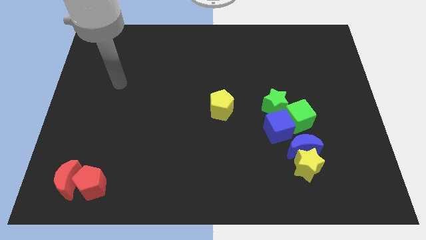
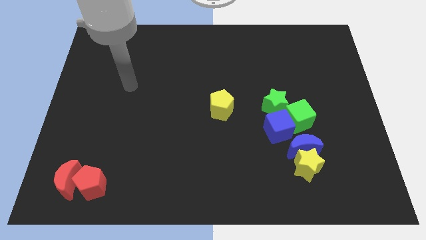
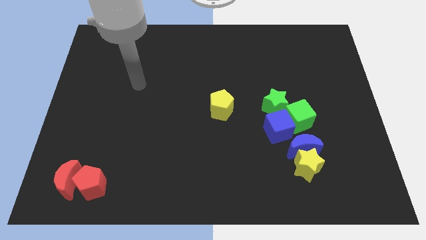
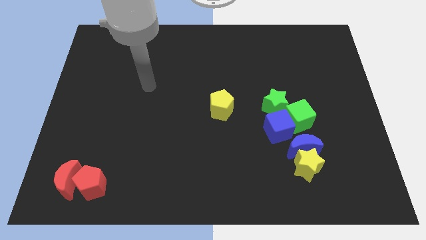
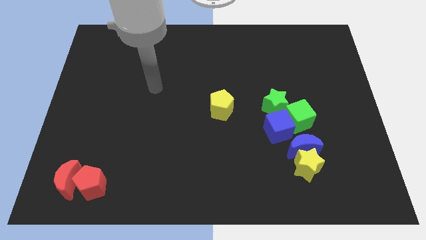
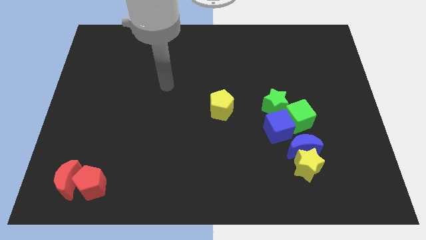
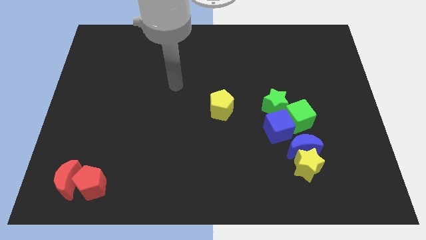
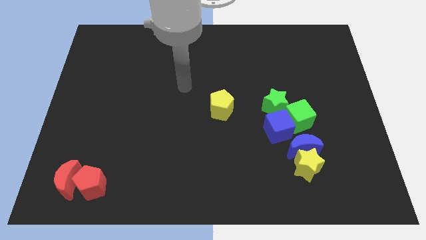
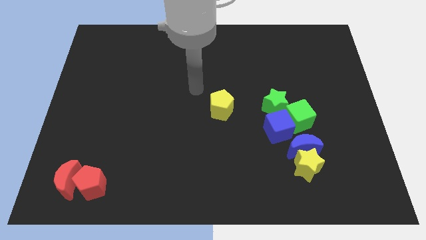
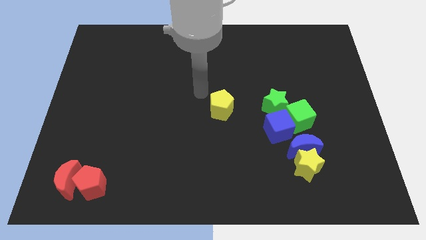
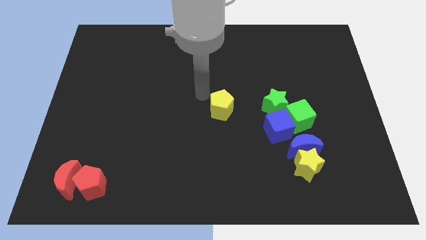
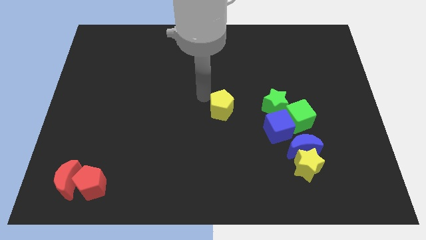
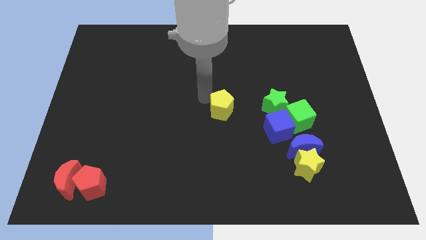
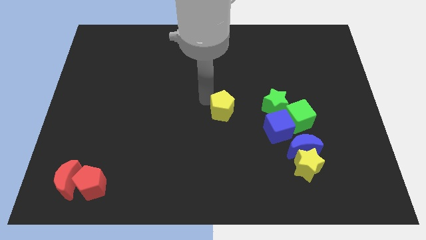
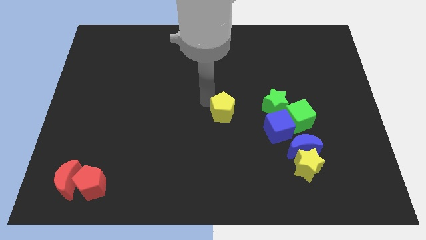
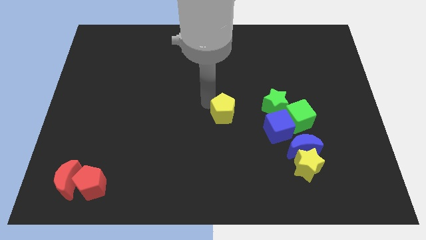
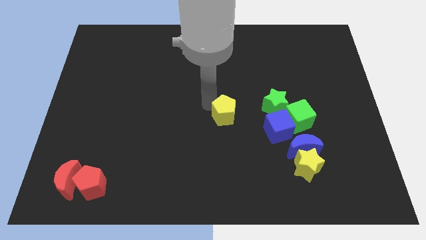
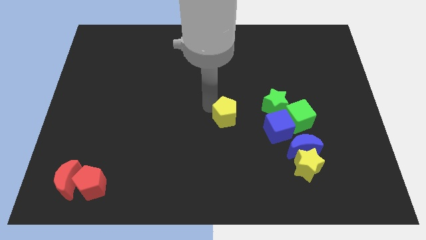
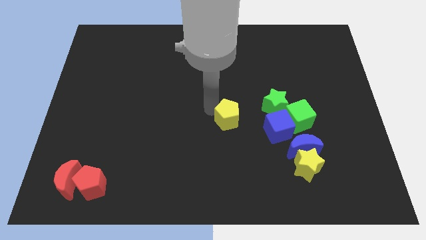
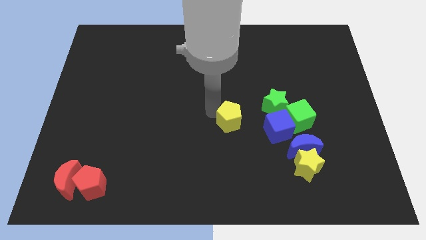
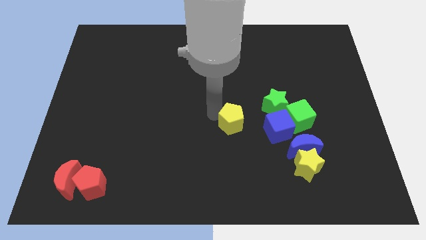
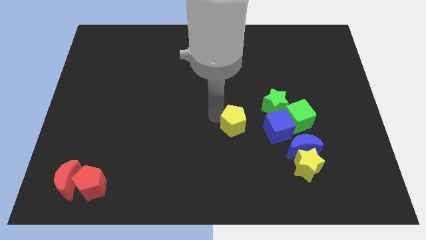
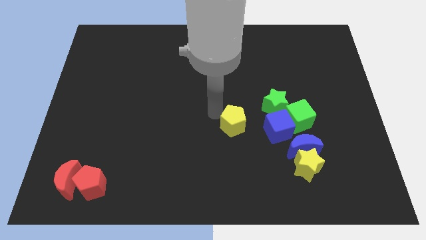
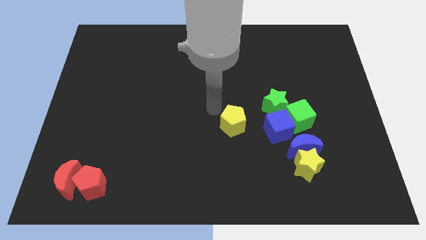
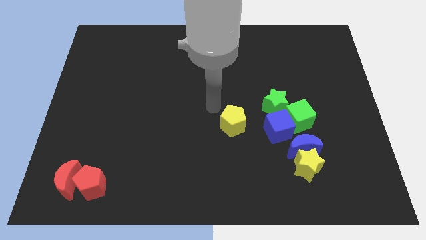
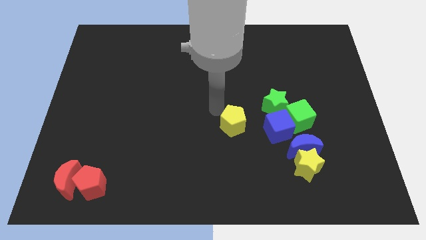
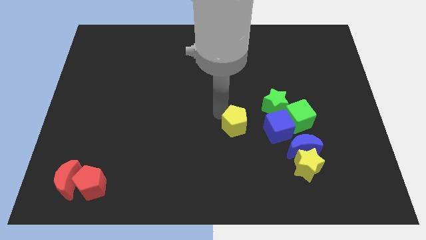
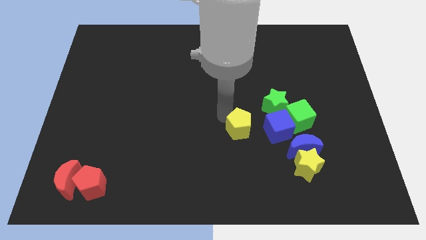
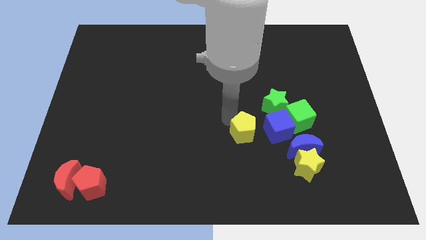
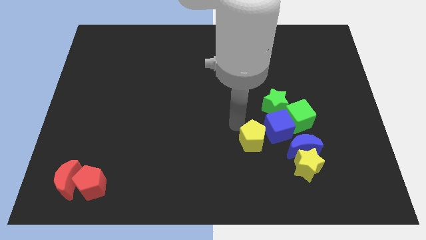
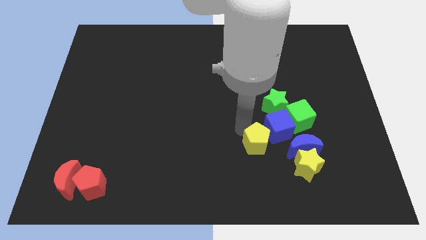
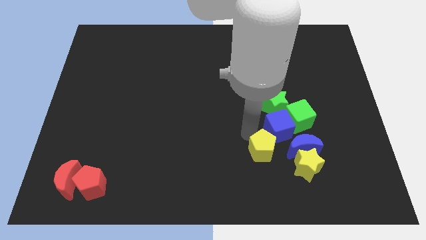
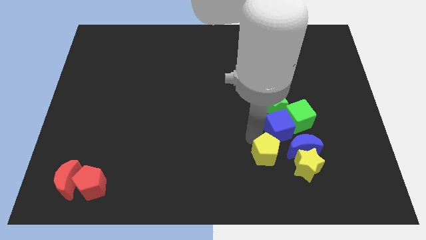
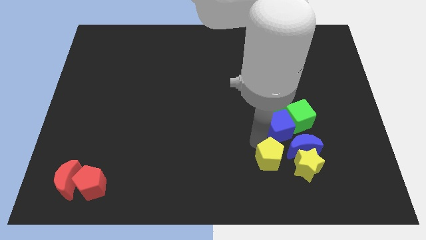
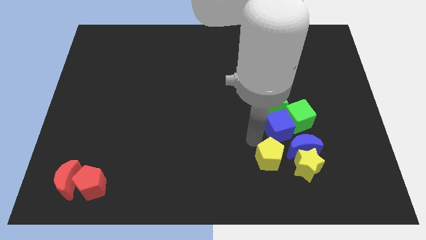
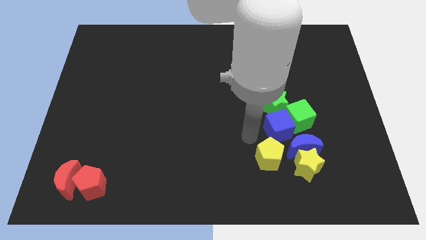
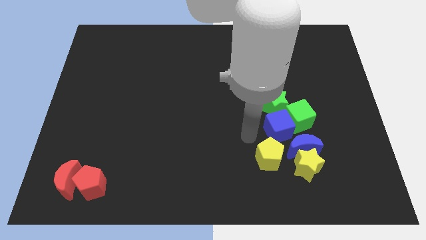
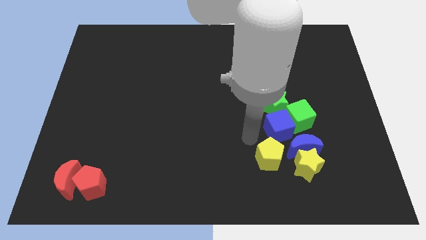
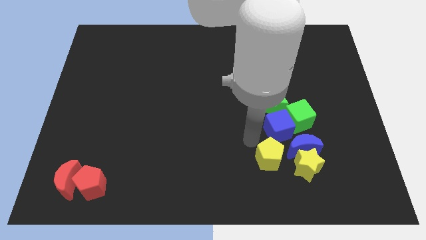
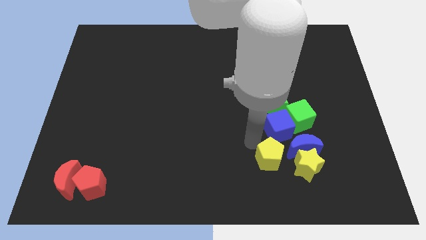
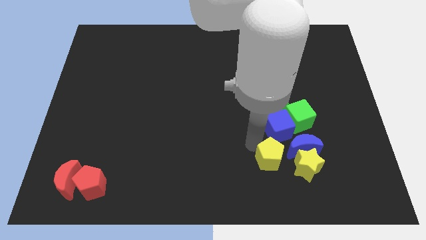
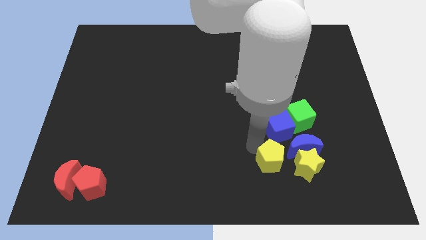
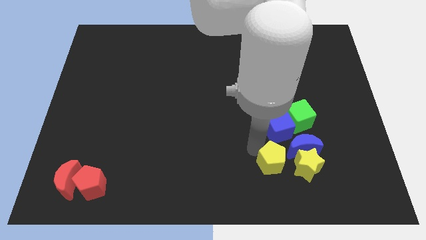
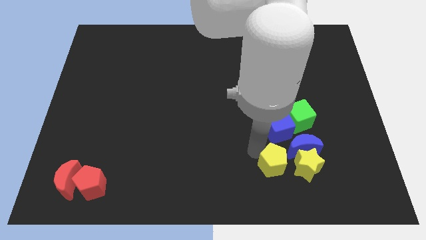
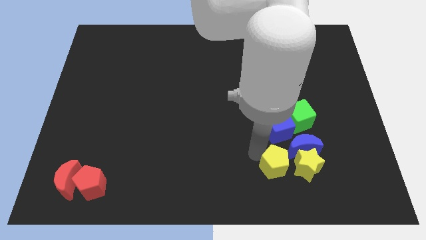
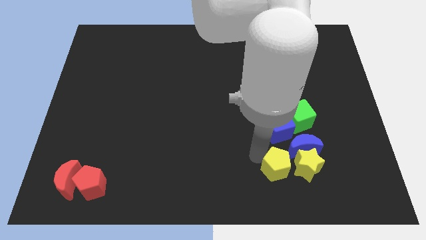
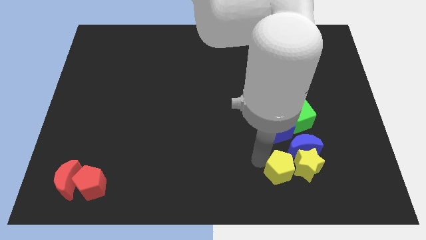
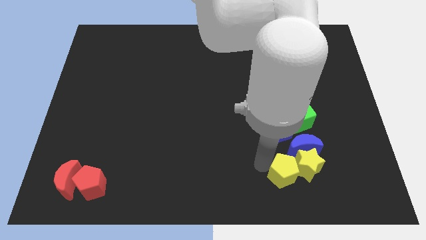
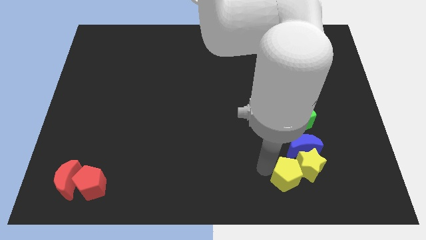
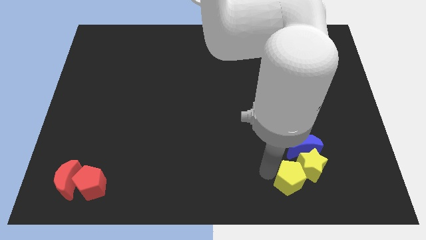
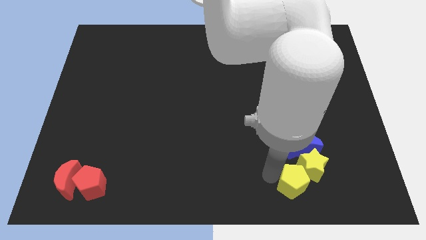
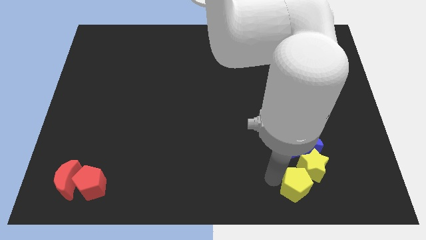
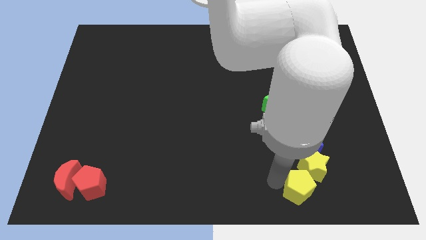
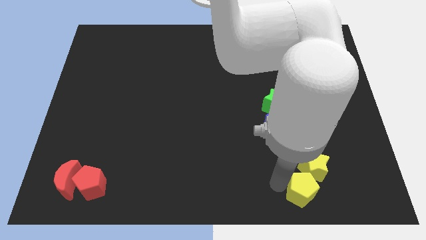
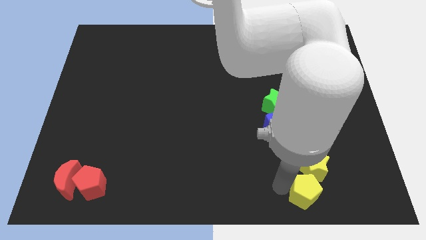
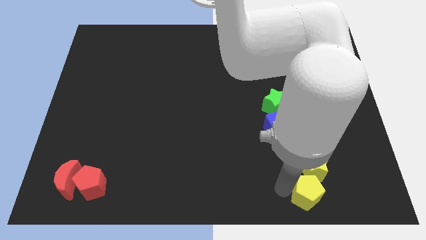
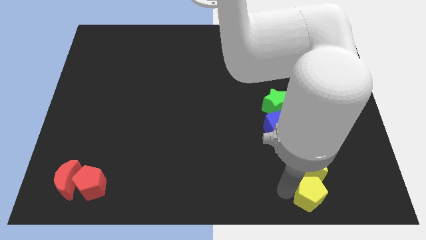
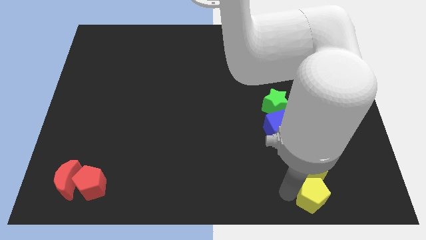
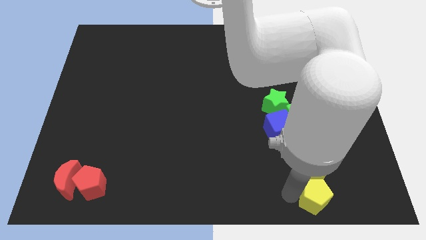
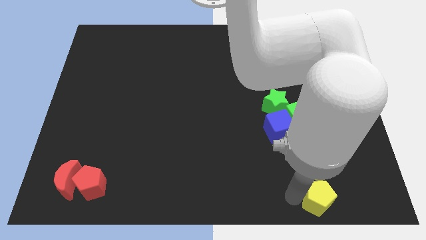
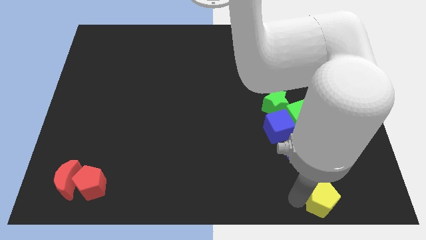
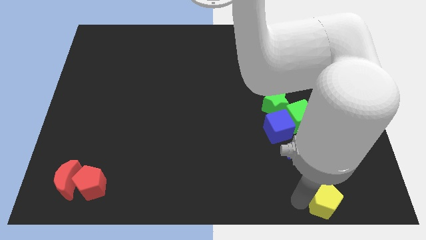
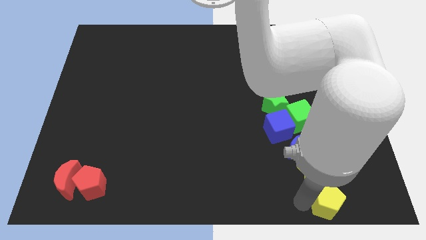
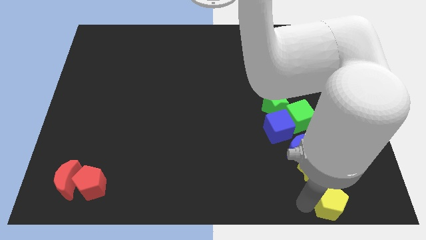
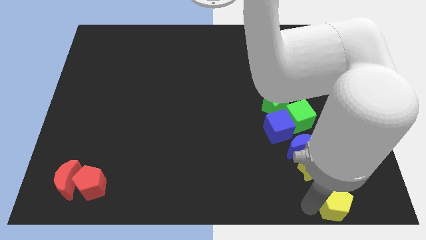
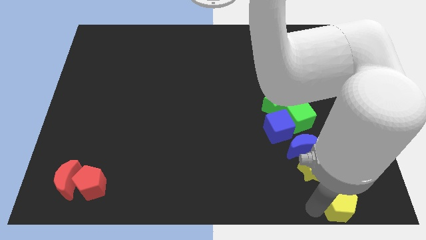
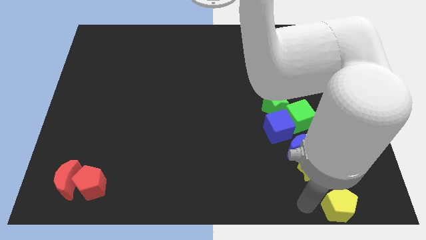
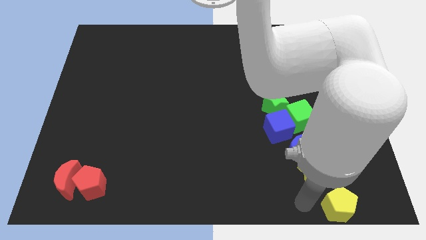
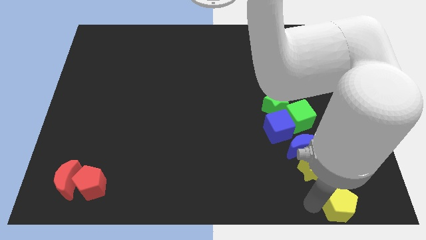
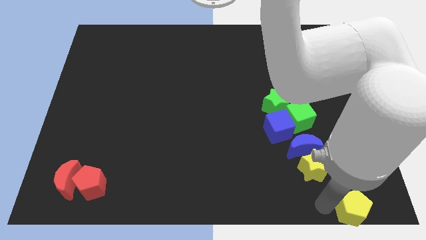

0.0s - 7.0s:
slide the yellow pentagon to the bottom right corner
